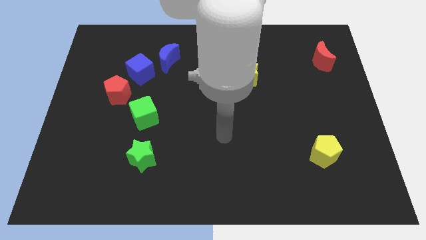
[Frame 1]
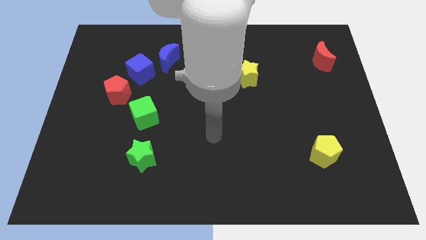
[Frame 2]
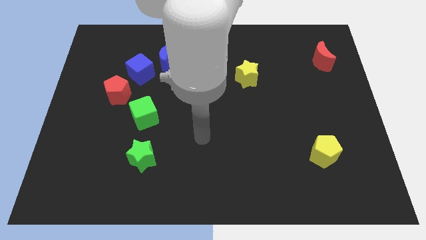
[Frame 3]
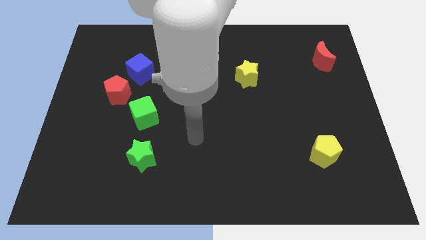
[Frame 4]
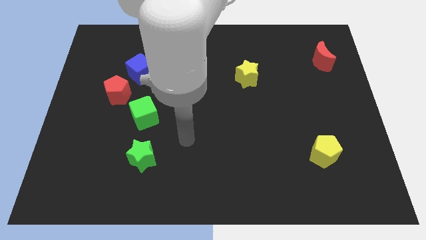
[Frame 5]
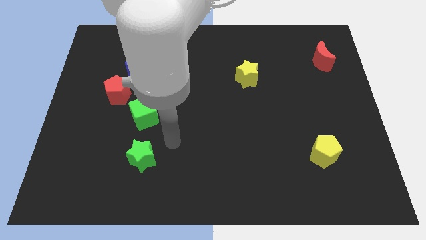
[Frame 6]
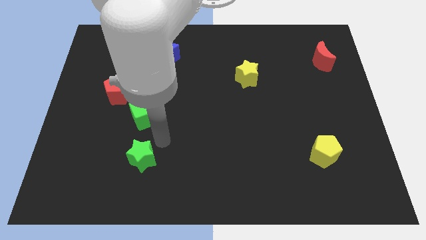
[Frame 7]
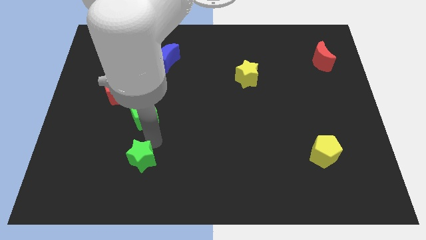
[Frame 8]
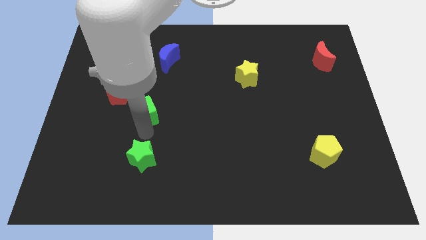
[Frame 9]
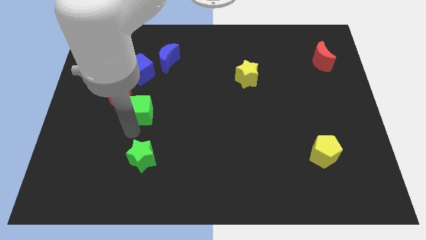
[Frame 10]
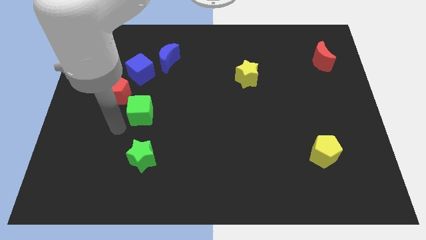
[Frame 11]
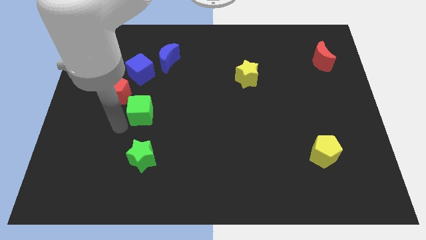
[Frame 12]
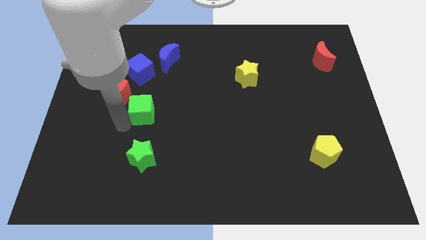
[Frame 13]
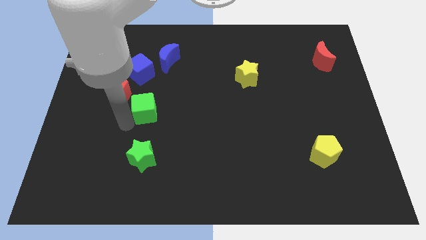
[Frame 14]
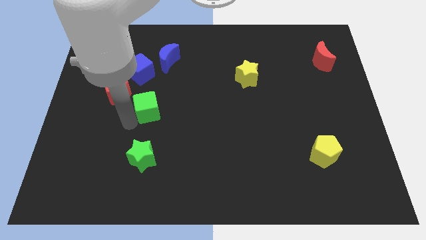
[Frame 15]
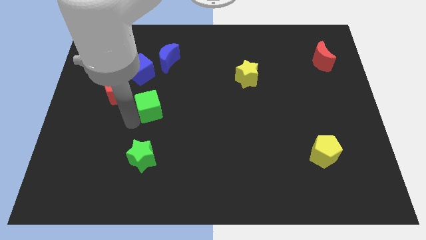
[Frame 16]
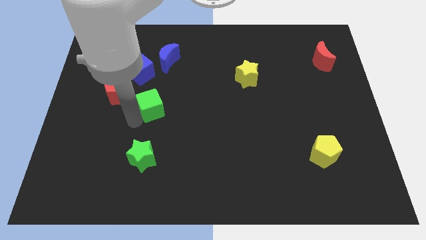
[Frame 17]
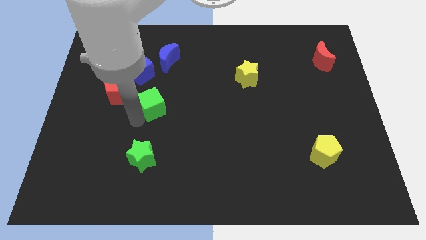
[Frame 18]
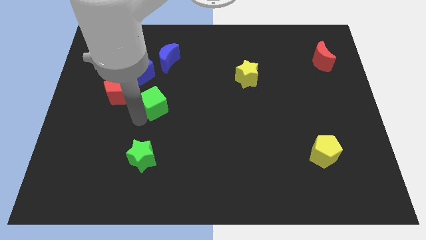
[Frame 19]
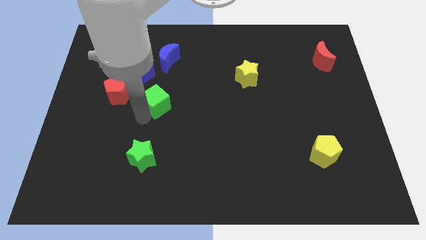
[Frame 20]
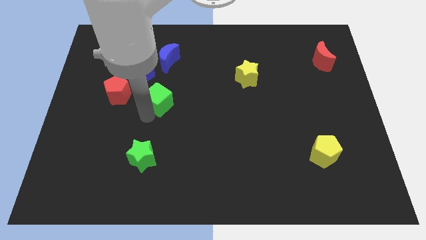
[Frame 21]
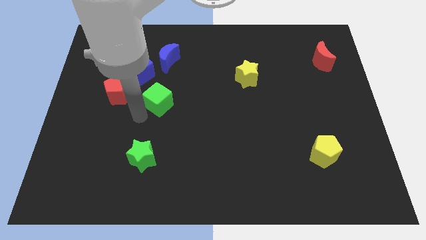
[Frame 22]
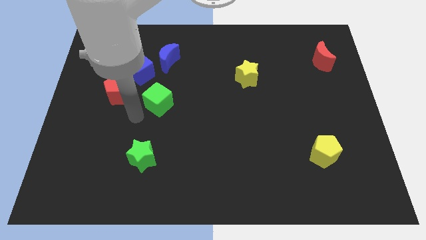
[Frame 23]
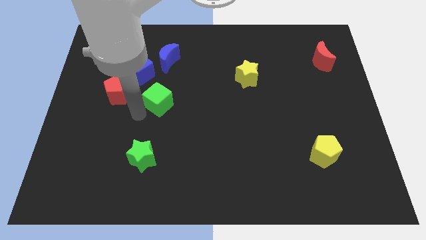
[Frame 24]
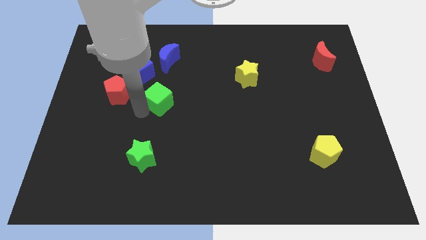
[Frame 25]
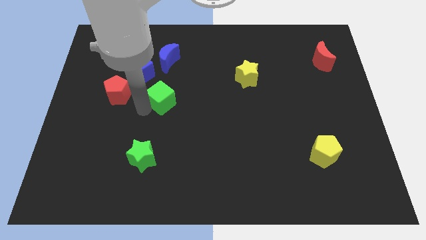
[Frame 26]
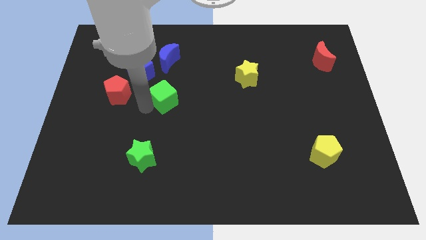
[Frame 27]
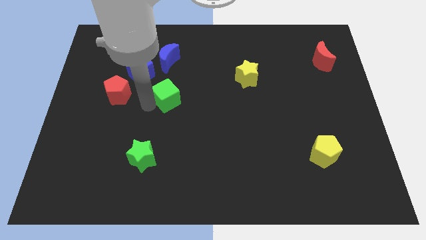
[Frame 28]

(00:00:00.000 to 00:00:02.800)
push the green cube a little bit diagonally upwards and to the right

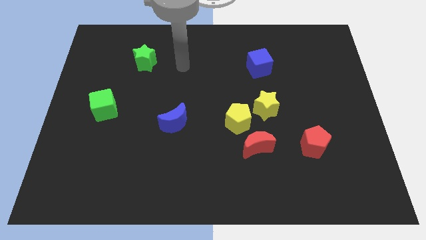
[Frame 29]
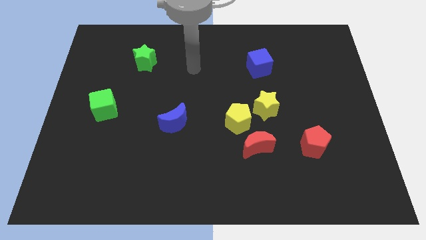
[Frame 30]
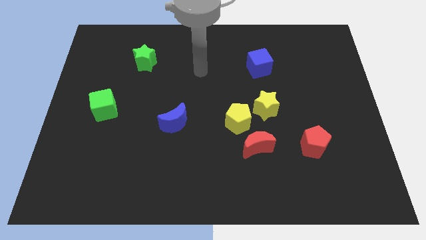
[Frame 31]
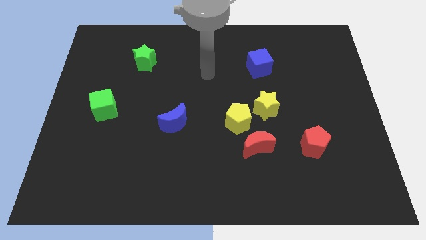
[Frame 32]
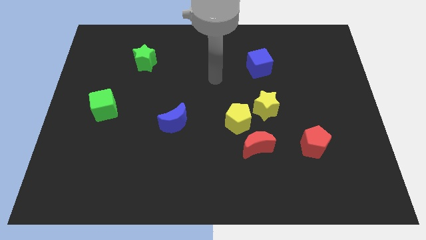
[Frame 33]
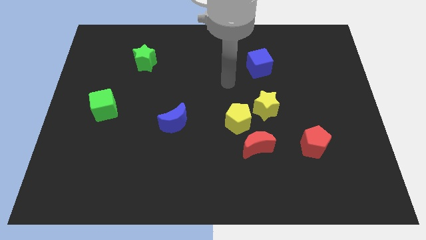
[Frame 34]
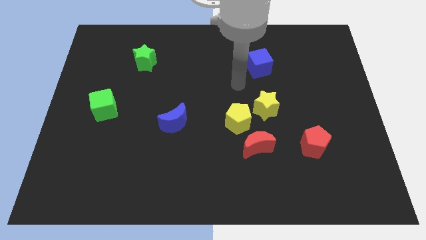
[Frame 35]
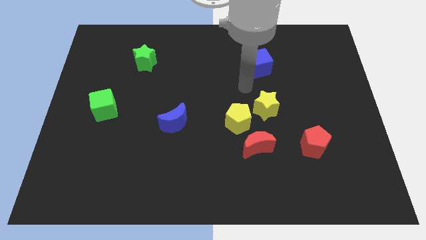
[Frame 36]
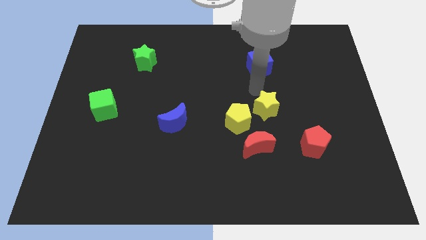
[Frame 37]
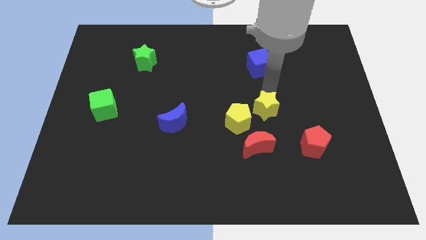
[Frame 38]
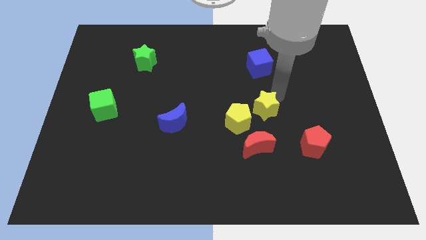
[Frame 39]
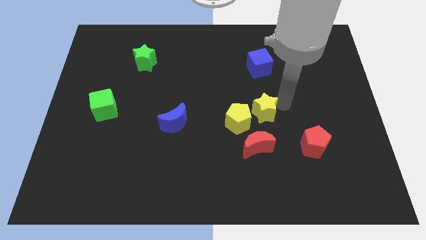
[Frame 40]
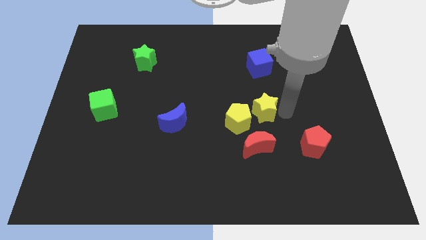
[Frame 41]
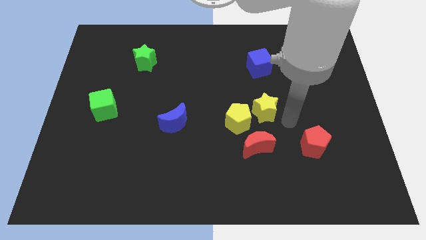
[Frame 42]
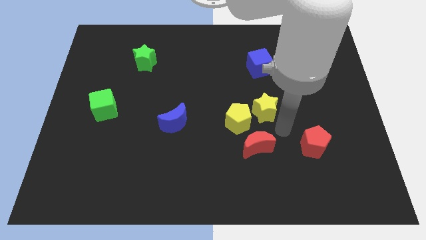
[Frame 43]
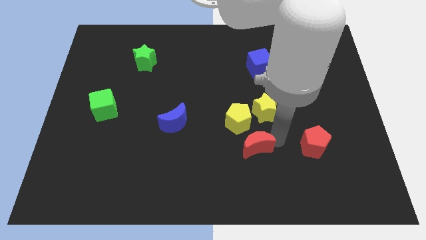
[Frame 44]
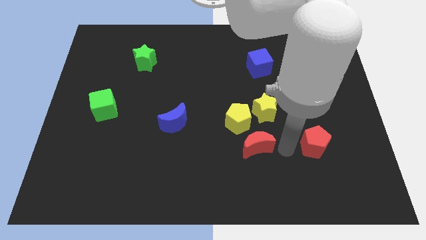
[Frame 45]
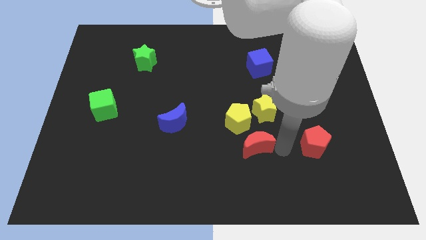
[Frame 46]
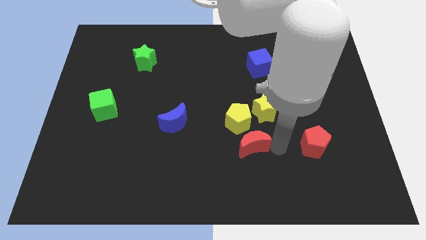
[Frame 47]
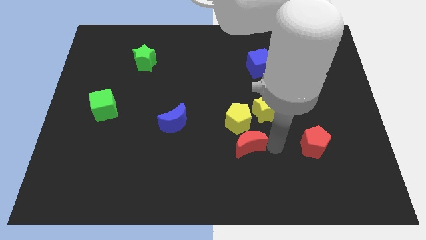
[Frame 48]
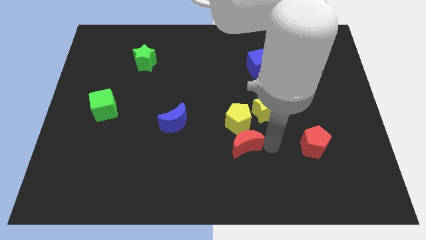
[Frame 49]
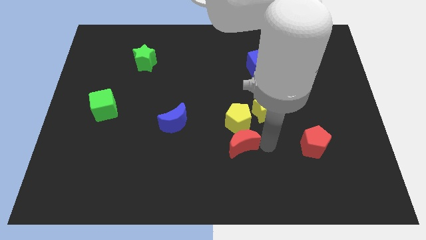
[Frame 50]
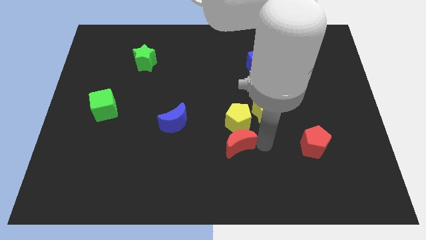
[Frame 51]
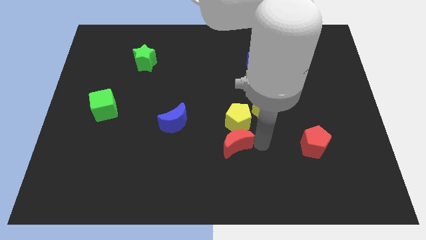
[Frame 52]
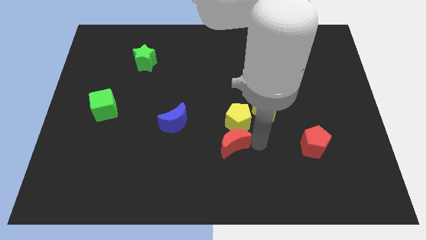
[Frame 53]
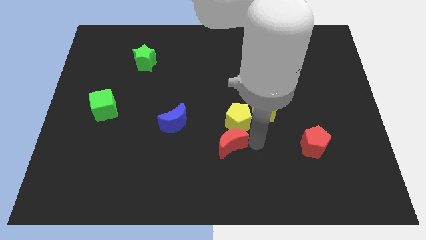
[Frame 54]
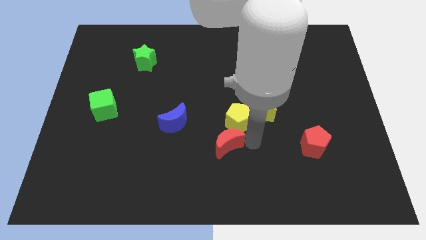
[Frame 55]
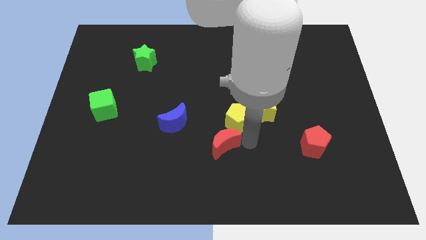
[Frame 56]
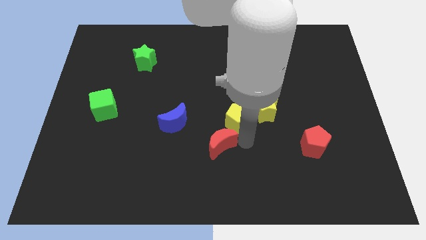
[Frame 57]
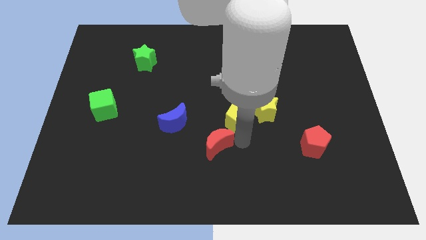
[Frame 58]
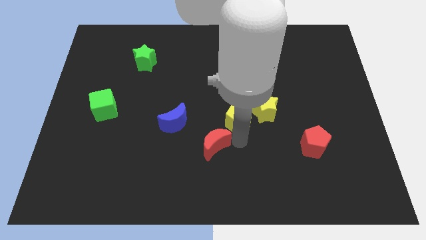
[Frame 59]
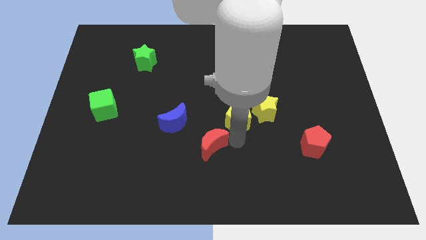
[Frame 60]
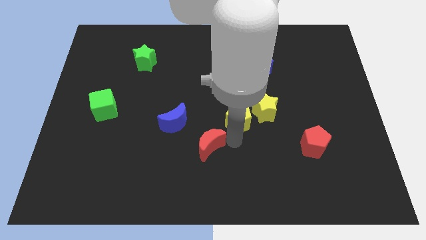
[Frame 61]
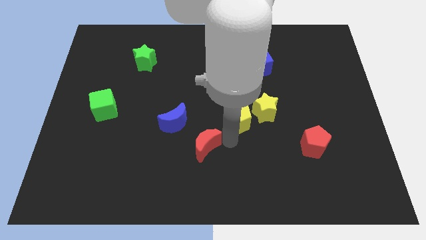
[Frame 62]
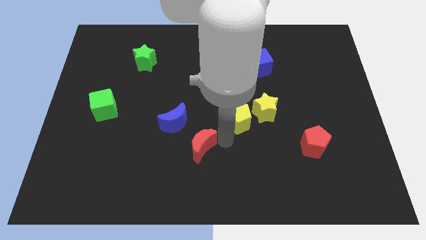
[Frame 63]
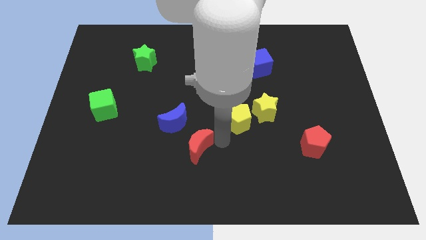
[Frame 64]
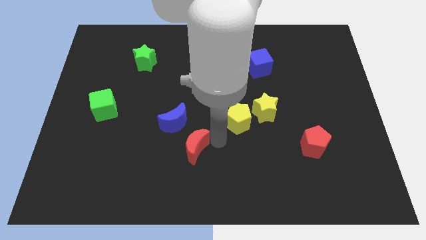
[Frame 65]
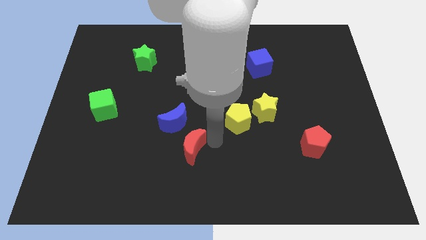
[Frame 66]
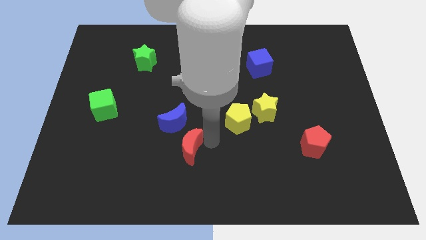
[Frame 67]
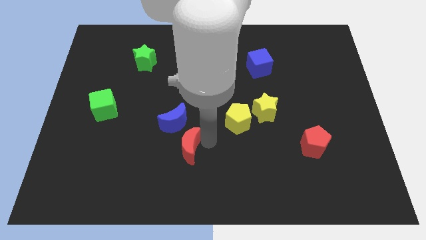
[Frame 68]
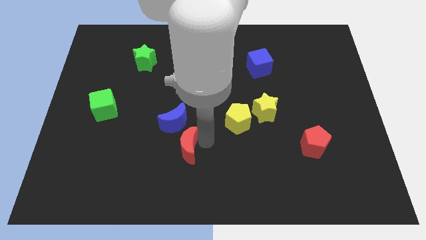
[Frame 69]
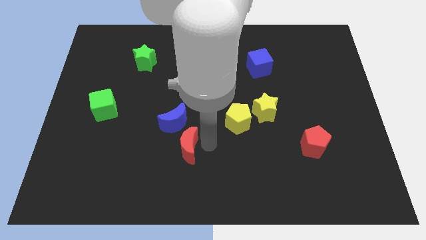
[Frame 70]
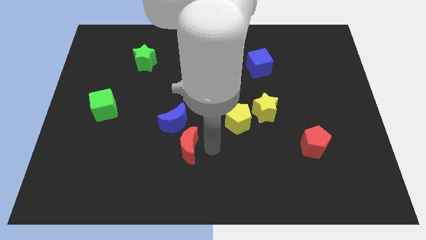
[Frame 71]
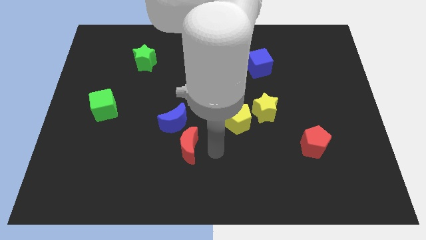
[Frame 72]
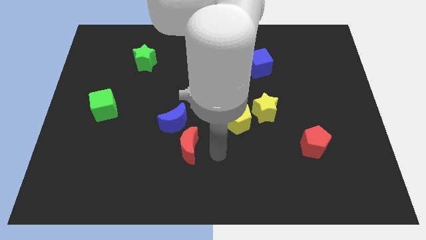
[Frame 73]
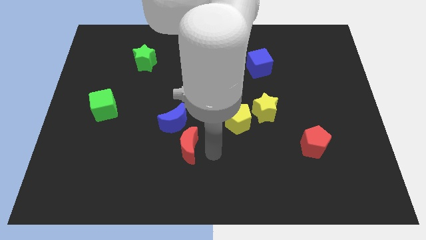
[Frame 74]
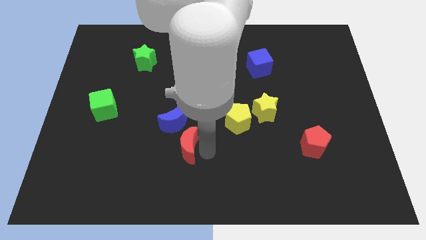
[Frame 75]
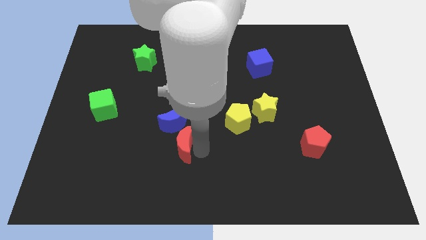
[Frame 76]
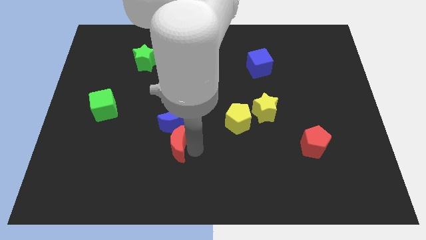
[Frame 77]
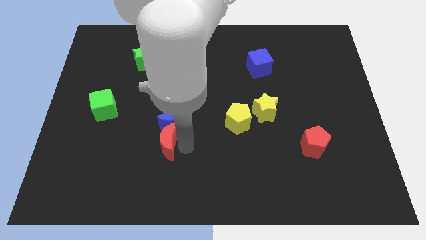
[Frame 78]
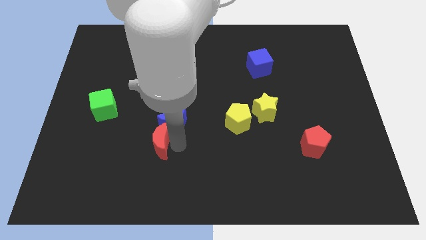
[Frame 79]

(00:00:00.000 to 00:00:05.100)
slide the red moon to the left

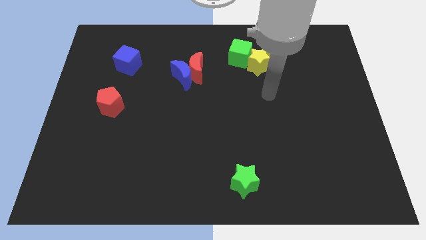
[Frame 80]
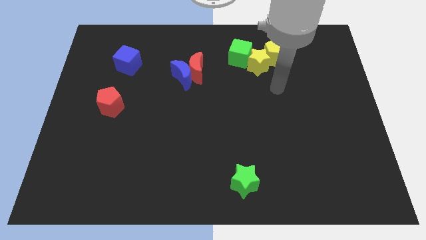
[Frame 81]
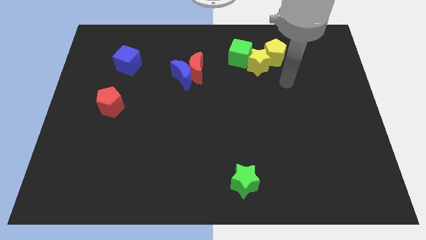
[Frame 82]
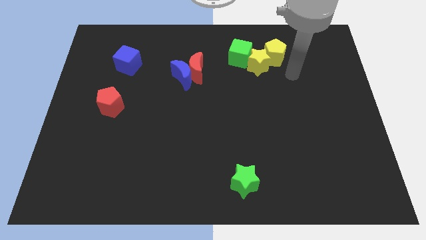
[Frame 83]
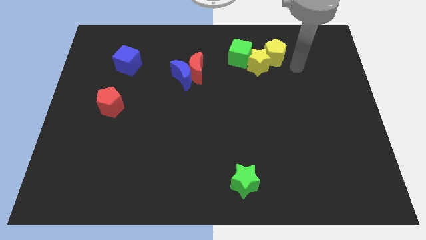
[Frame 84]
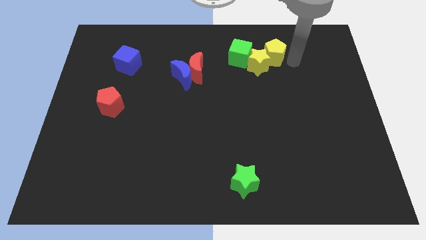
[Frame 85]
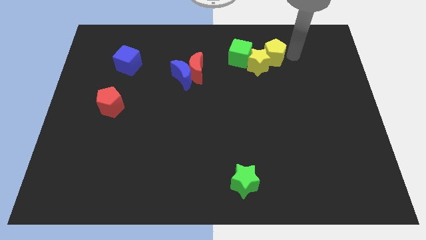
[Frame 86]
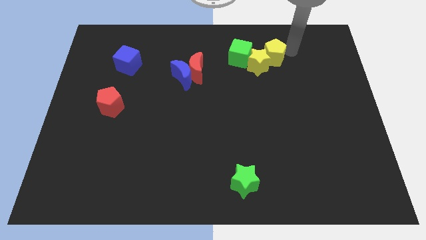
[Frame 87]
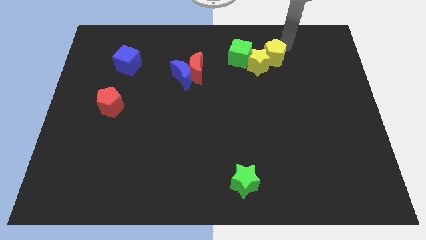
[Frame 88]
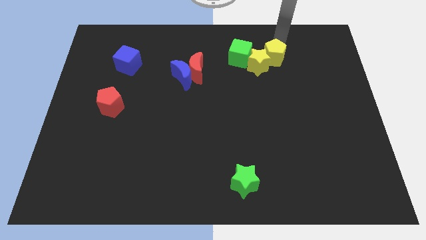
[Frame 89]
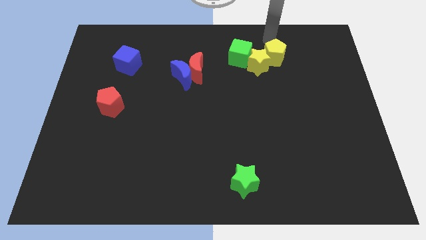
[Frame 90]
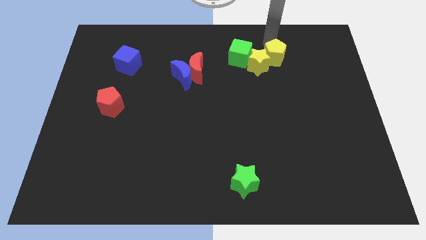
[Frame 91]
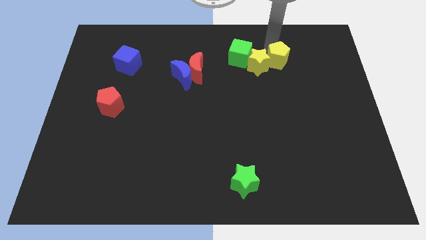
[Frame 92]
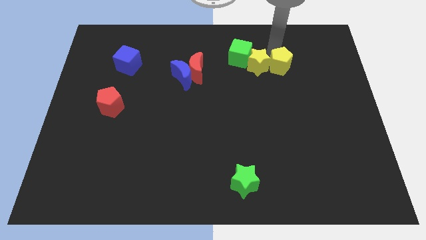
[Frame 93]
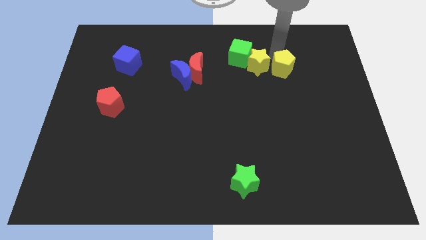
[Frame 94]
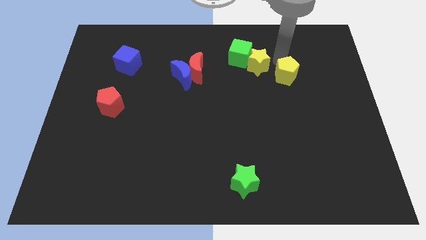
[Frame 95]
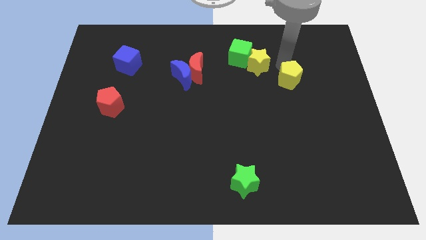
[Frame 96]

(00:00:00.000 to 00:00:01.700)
slide the yellow pentagon down a bit
